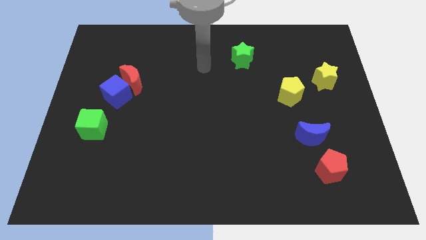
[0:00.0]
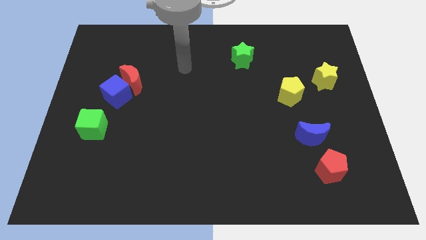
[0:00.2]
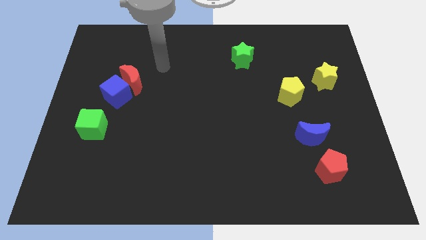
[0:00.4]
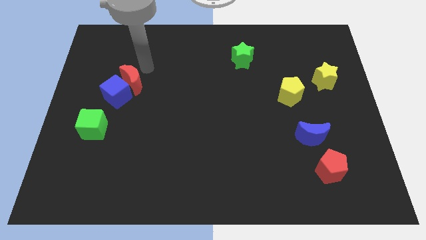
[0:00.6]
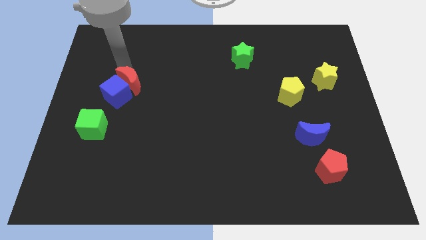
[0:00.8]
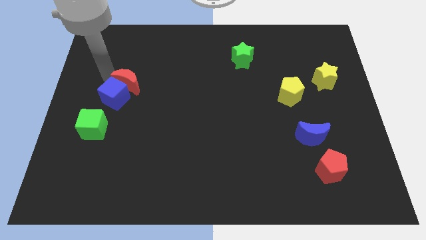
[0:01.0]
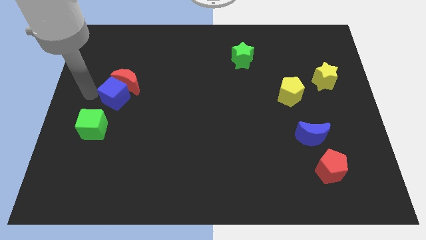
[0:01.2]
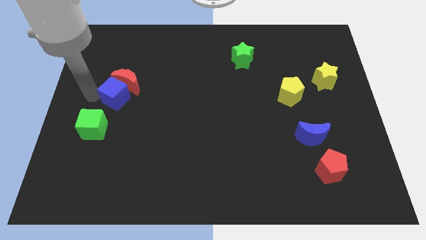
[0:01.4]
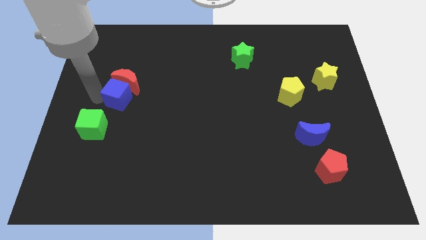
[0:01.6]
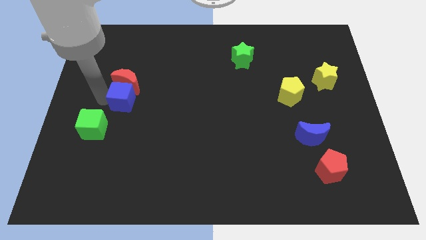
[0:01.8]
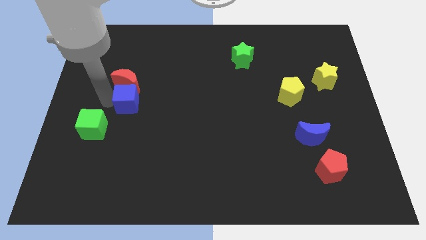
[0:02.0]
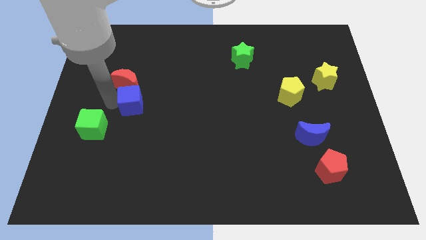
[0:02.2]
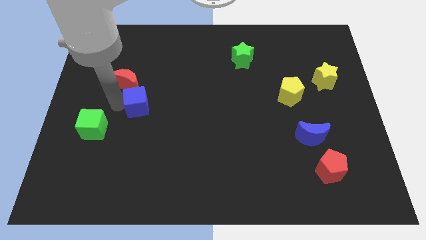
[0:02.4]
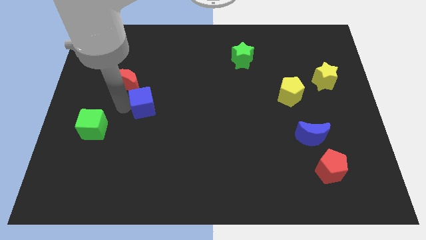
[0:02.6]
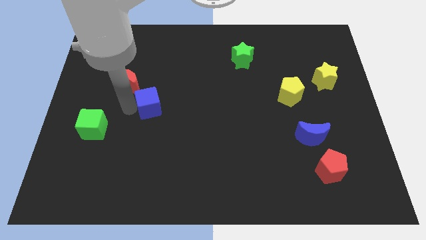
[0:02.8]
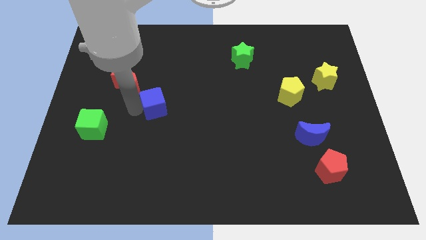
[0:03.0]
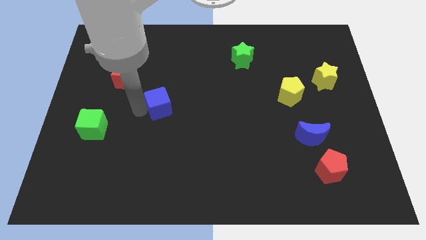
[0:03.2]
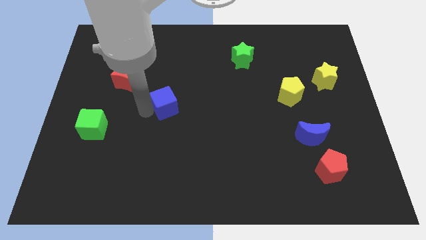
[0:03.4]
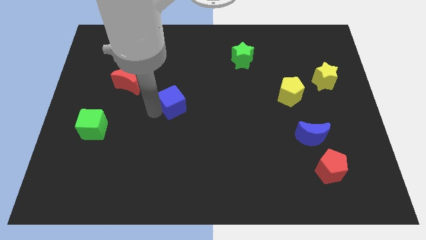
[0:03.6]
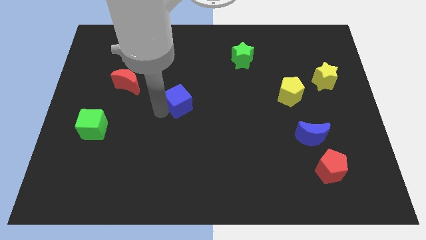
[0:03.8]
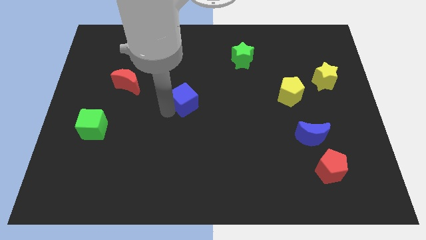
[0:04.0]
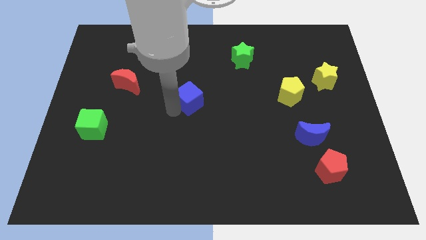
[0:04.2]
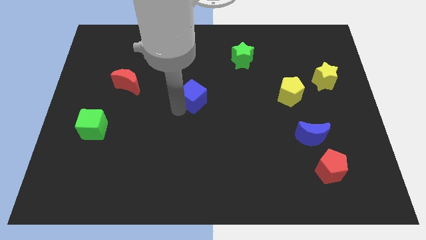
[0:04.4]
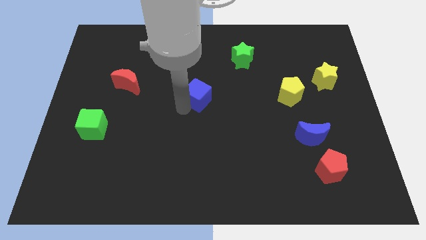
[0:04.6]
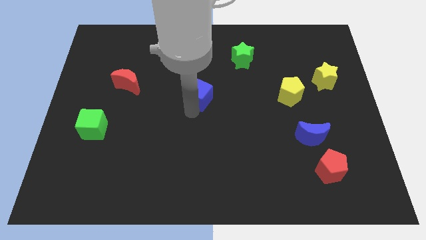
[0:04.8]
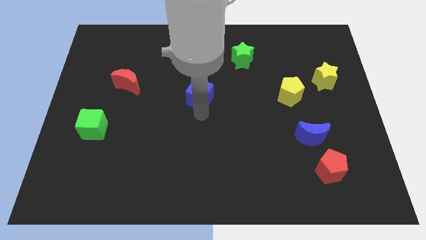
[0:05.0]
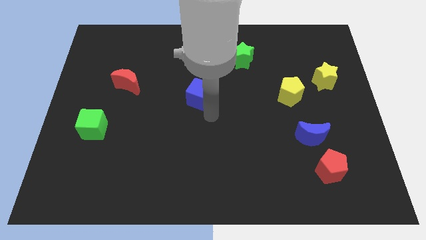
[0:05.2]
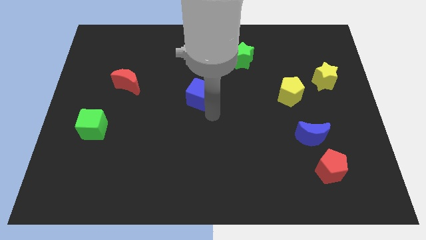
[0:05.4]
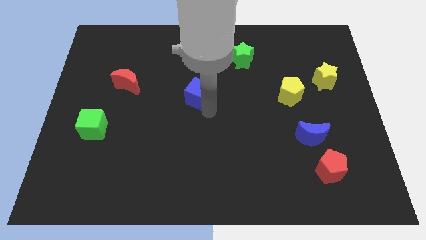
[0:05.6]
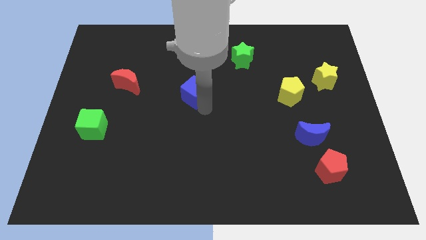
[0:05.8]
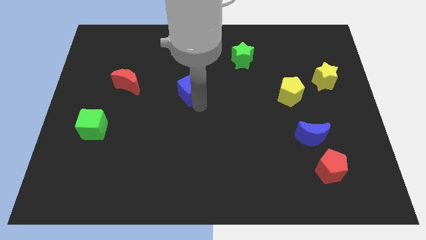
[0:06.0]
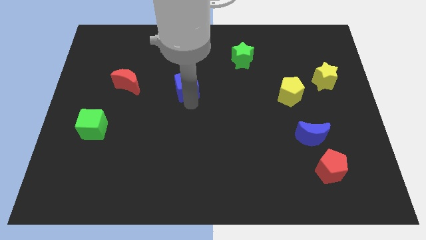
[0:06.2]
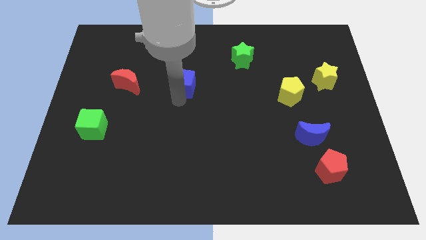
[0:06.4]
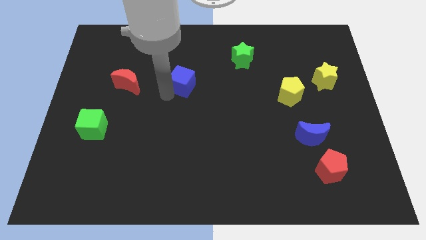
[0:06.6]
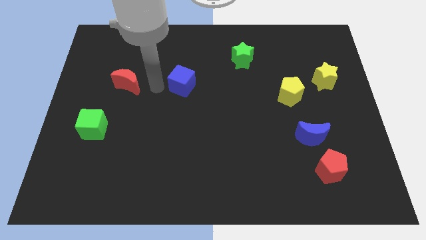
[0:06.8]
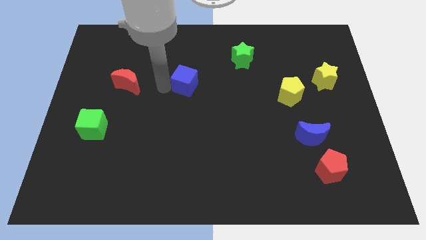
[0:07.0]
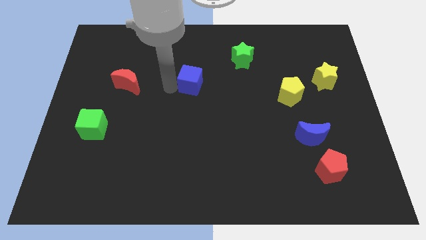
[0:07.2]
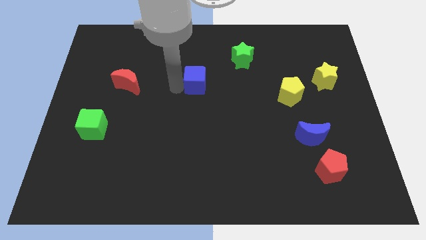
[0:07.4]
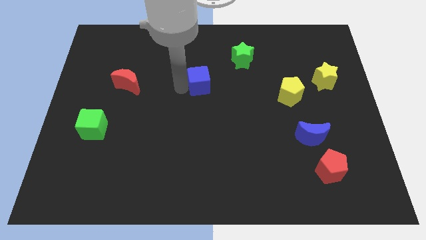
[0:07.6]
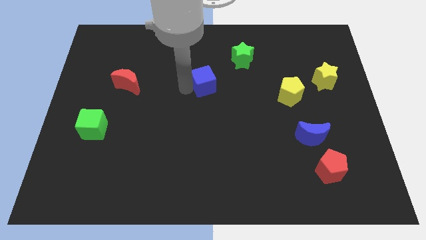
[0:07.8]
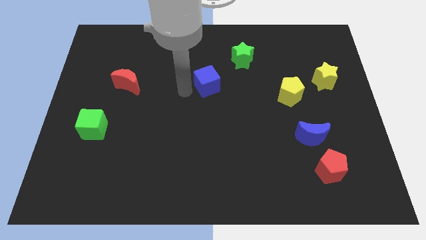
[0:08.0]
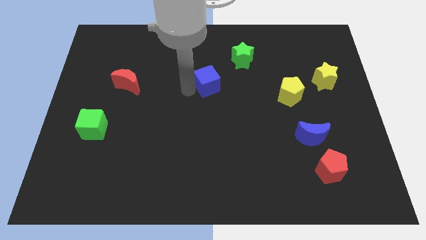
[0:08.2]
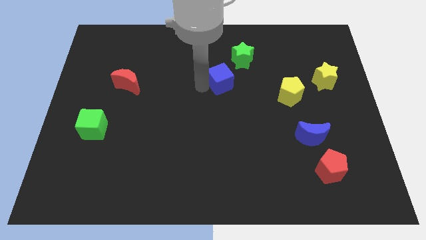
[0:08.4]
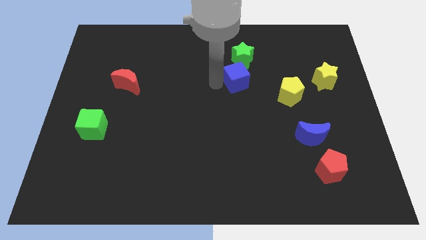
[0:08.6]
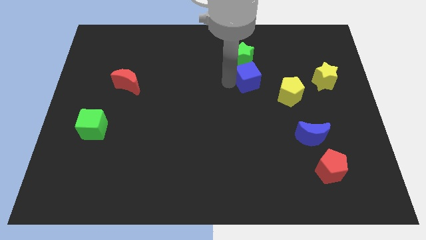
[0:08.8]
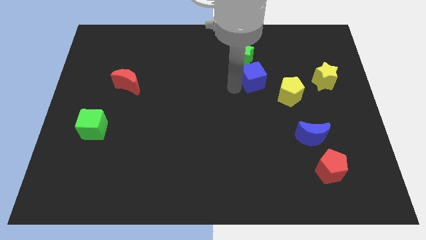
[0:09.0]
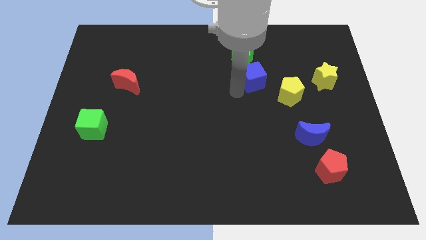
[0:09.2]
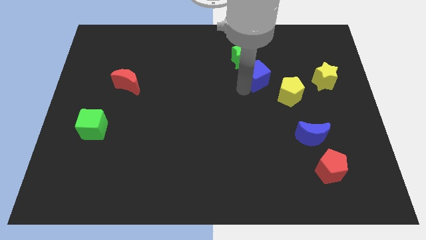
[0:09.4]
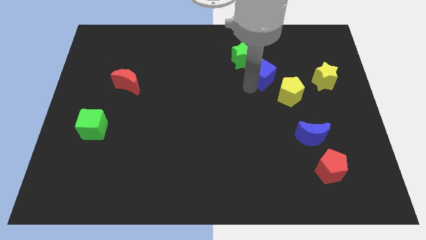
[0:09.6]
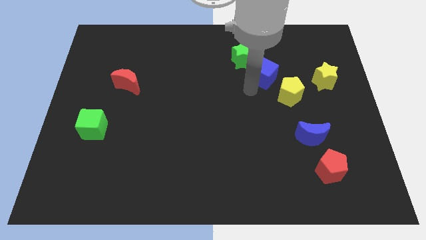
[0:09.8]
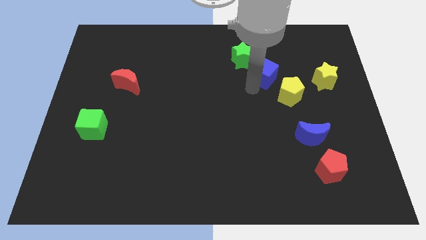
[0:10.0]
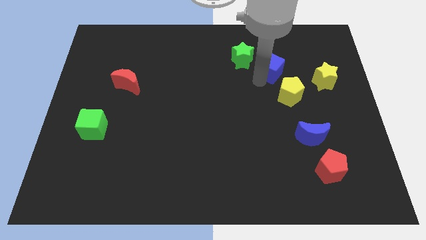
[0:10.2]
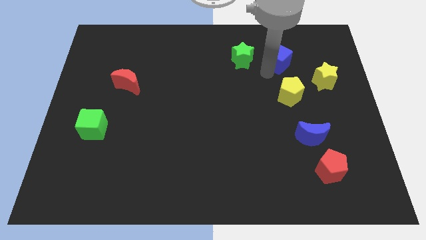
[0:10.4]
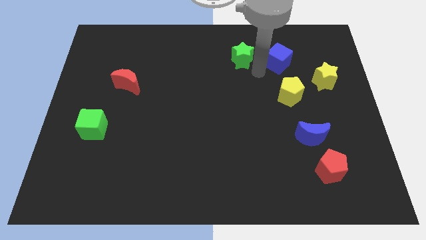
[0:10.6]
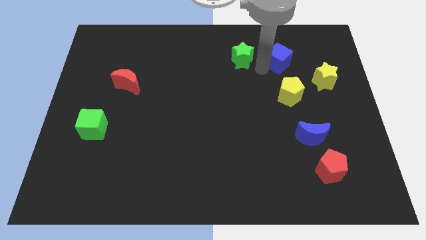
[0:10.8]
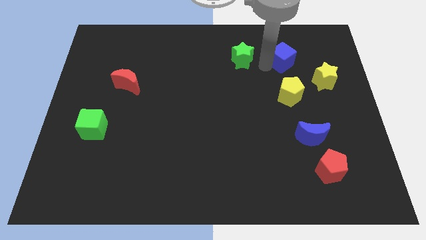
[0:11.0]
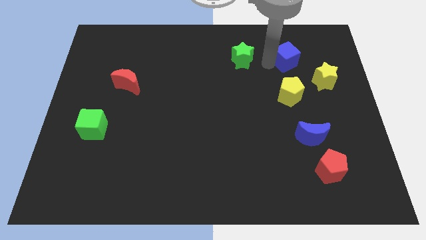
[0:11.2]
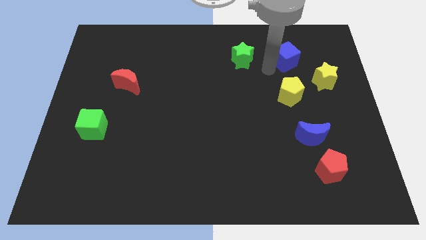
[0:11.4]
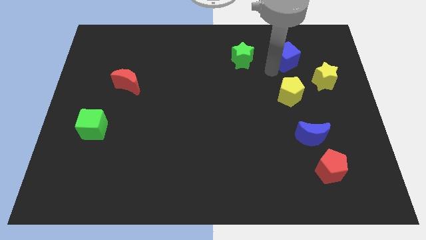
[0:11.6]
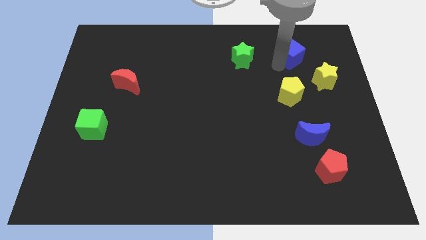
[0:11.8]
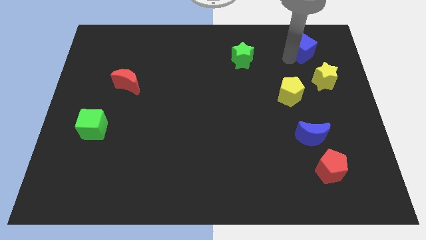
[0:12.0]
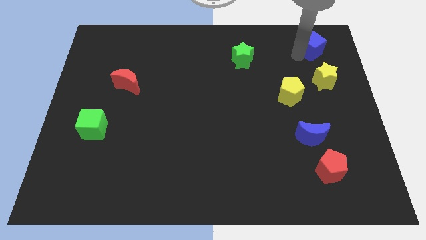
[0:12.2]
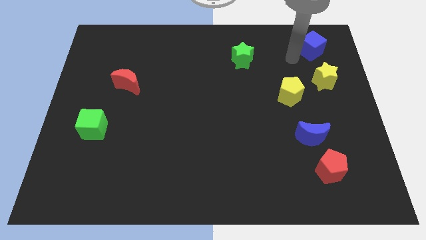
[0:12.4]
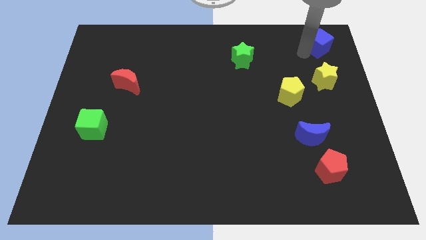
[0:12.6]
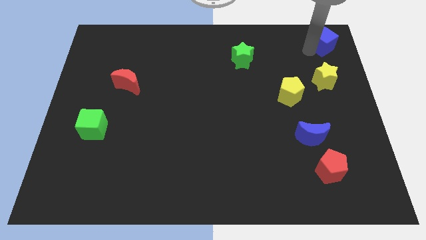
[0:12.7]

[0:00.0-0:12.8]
put the blue cube to the top right
